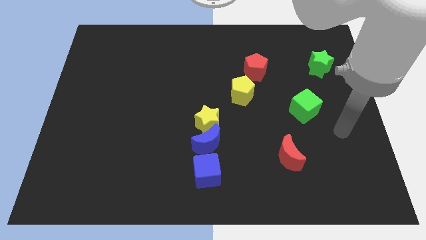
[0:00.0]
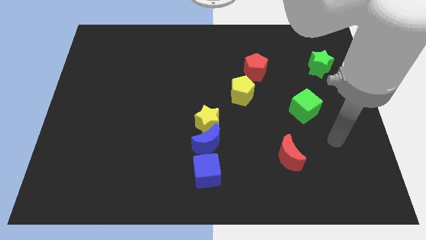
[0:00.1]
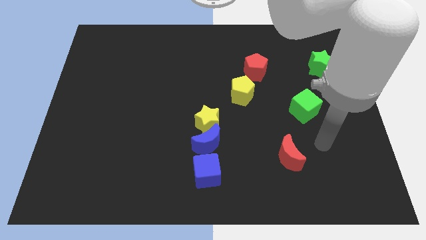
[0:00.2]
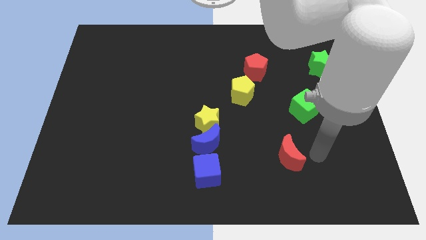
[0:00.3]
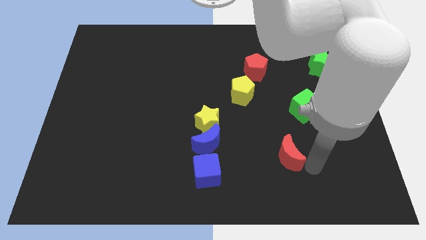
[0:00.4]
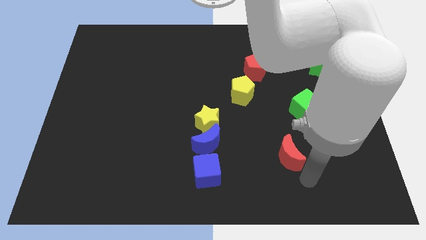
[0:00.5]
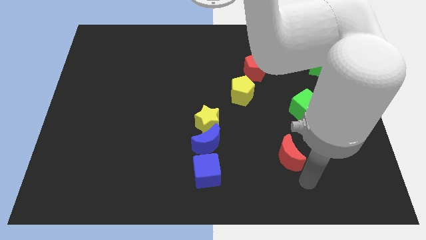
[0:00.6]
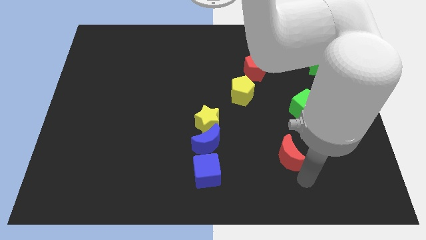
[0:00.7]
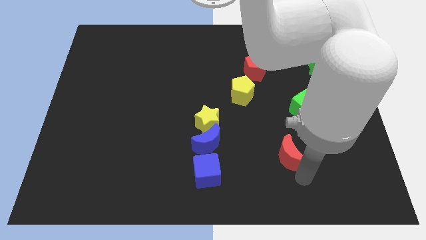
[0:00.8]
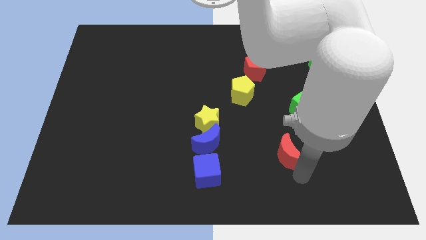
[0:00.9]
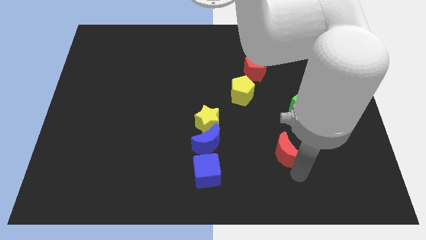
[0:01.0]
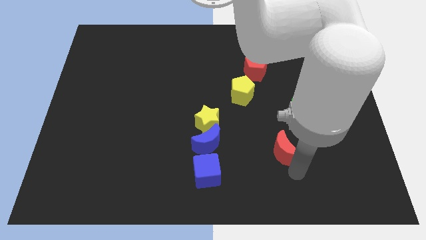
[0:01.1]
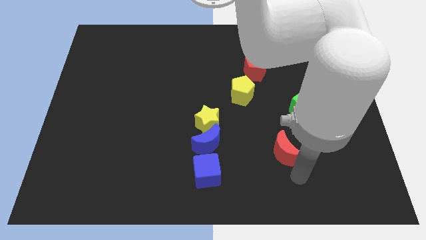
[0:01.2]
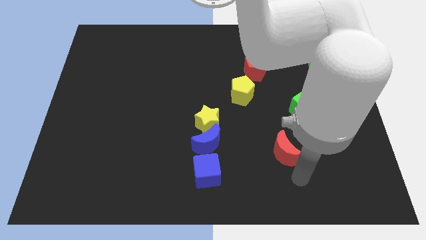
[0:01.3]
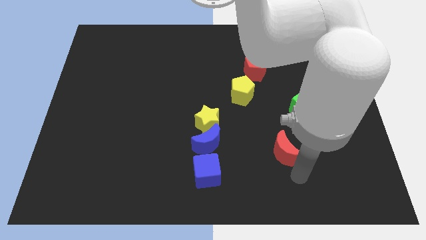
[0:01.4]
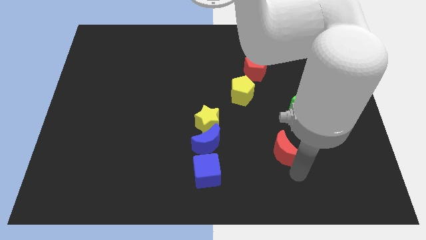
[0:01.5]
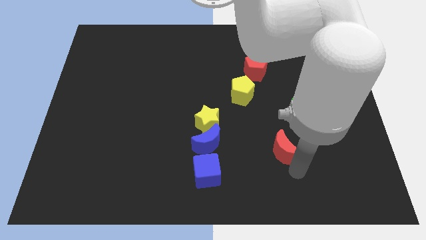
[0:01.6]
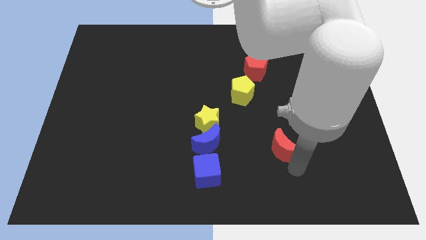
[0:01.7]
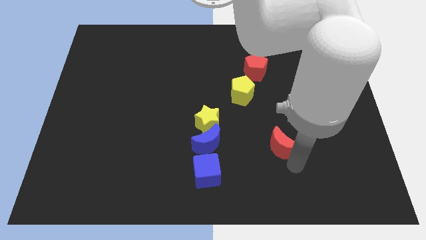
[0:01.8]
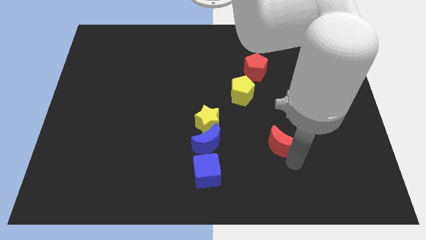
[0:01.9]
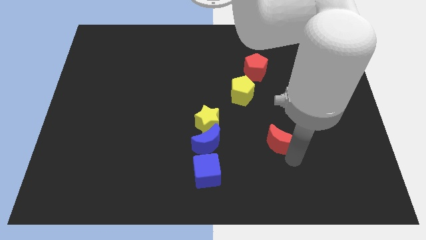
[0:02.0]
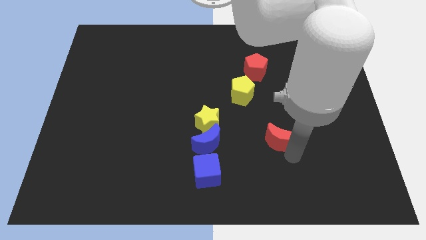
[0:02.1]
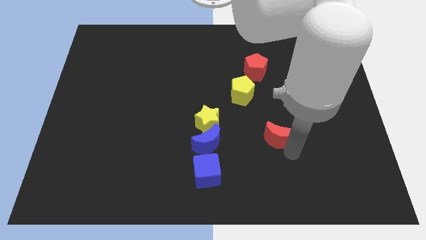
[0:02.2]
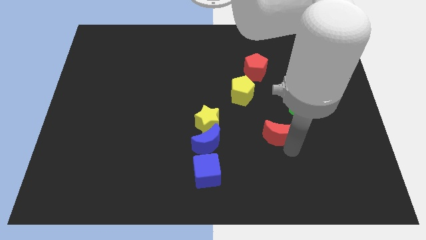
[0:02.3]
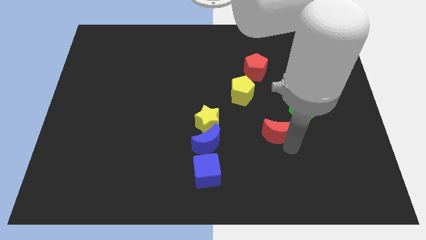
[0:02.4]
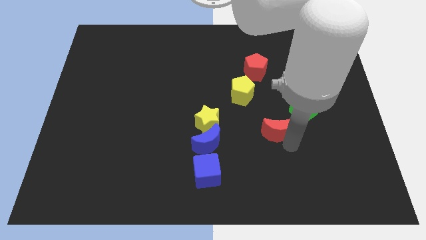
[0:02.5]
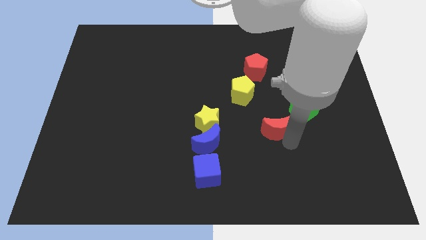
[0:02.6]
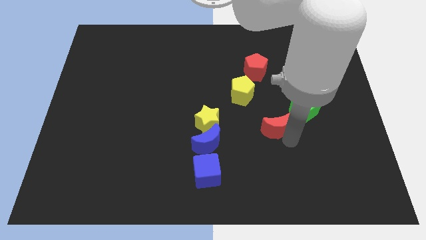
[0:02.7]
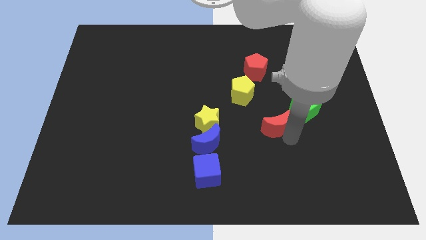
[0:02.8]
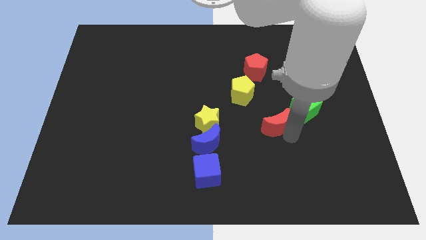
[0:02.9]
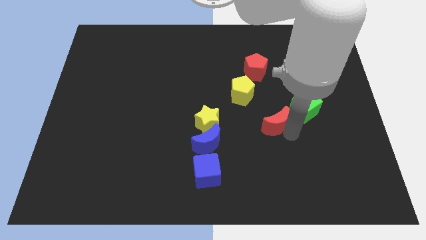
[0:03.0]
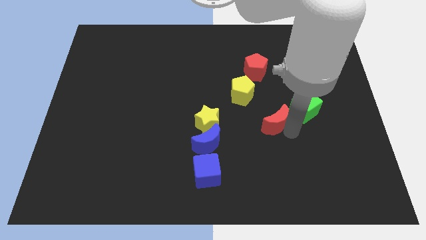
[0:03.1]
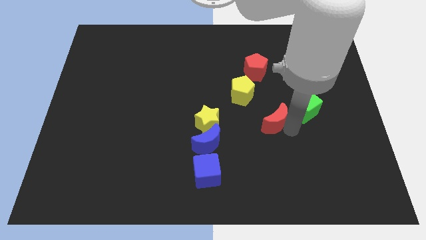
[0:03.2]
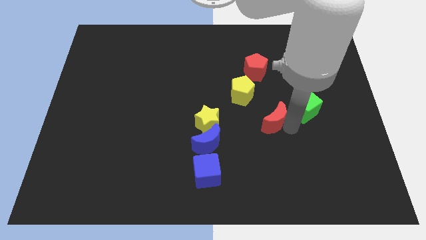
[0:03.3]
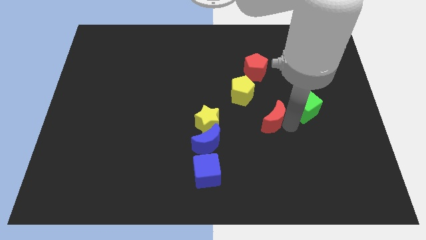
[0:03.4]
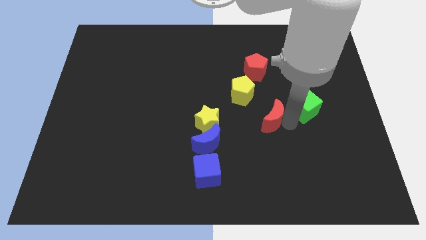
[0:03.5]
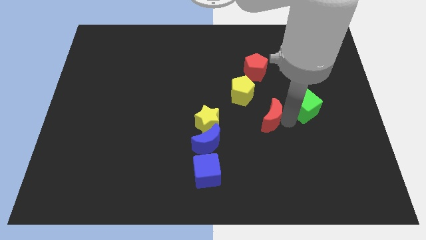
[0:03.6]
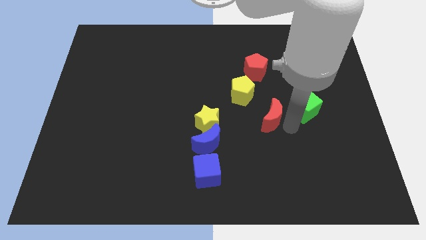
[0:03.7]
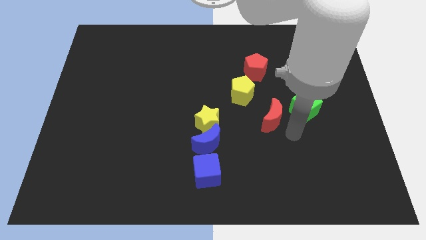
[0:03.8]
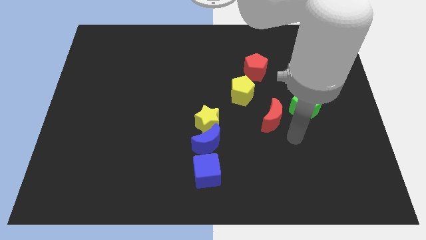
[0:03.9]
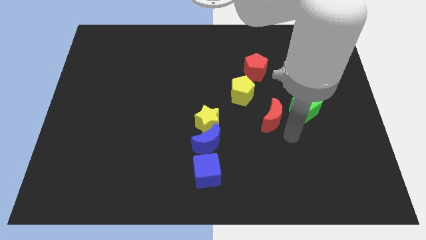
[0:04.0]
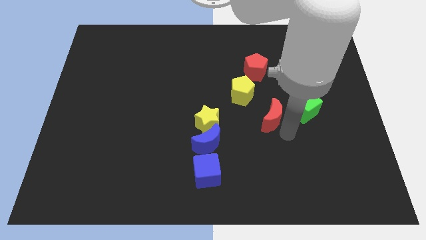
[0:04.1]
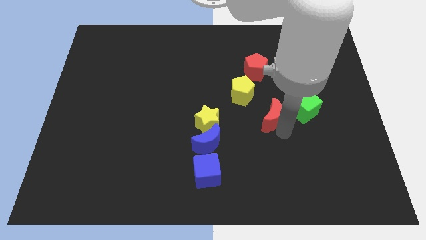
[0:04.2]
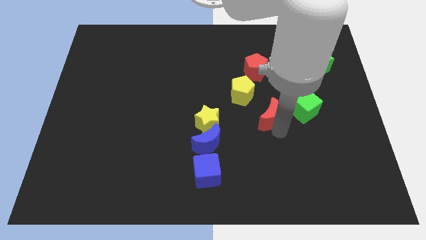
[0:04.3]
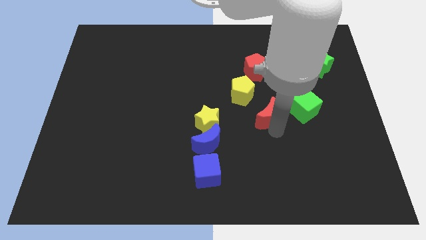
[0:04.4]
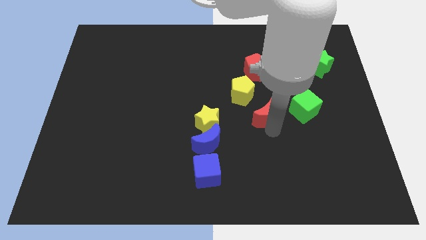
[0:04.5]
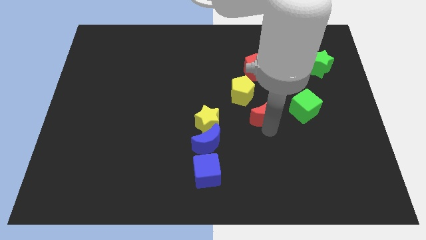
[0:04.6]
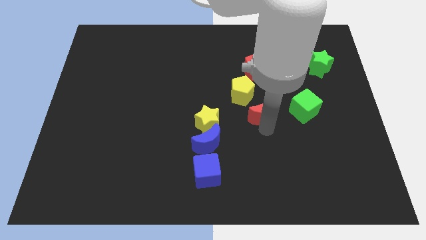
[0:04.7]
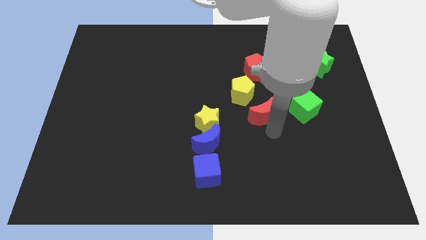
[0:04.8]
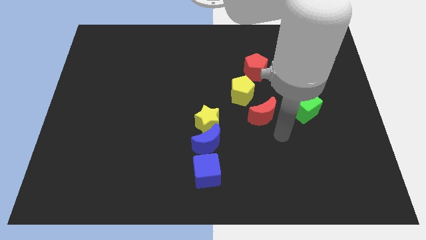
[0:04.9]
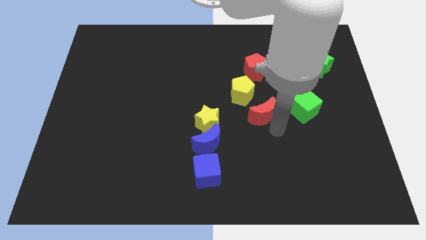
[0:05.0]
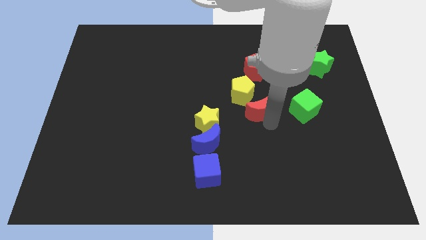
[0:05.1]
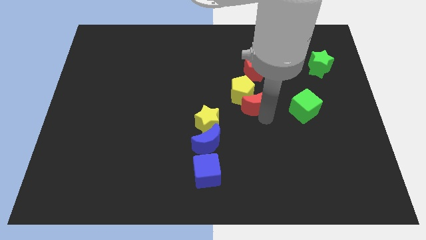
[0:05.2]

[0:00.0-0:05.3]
push the red moon towards the yellow pentagon

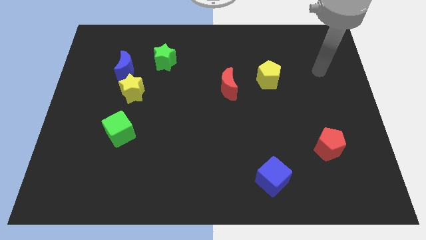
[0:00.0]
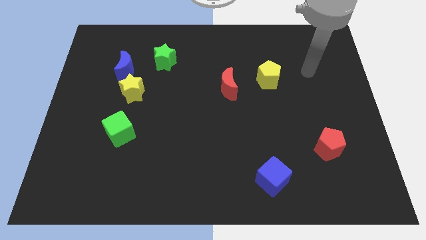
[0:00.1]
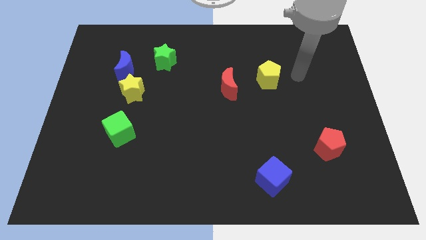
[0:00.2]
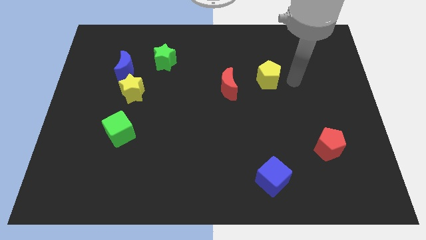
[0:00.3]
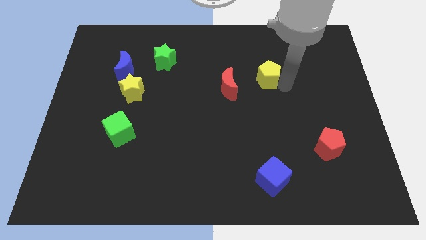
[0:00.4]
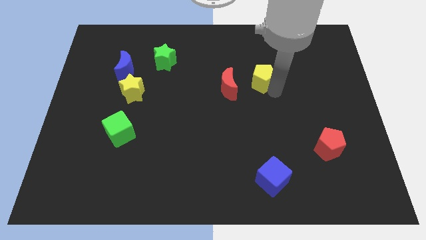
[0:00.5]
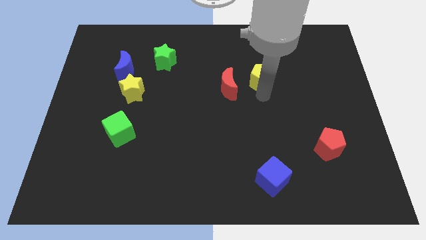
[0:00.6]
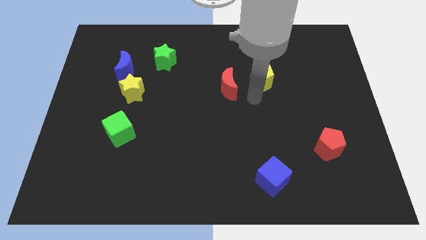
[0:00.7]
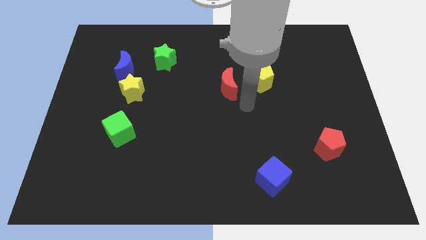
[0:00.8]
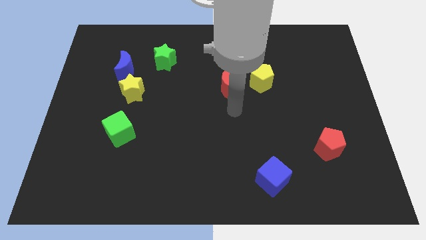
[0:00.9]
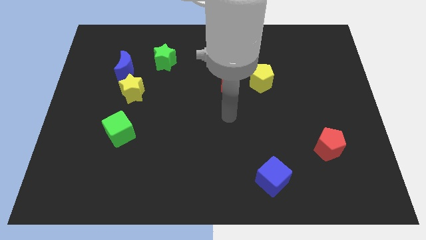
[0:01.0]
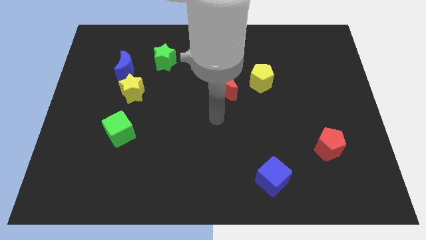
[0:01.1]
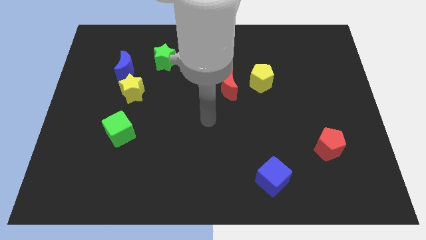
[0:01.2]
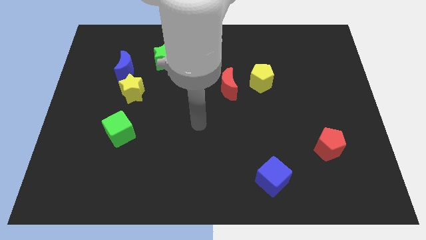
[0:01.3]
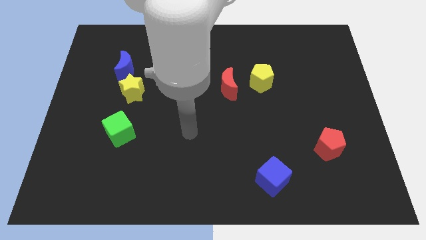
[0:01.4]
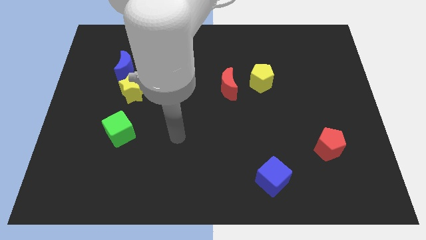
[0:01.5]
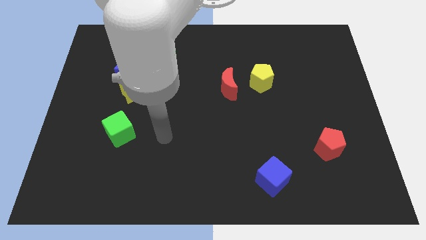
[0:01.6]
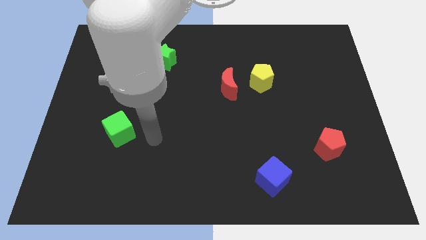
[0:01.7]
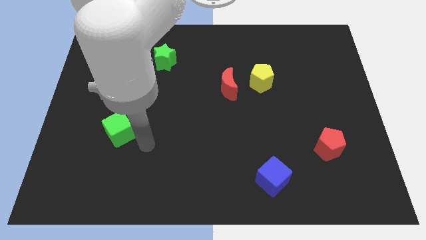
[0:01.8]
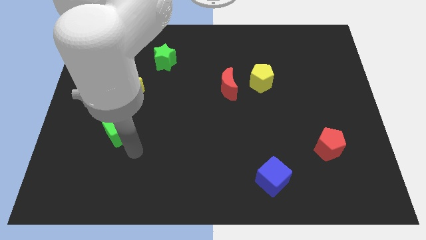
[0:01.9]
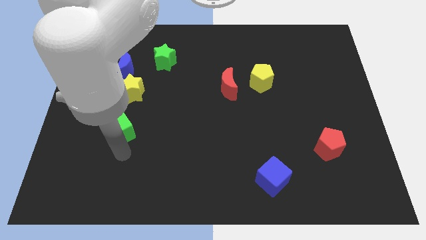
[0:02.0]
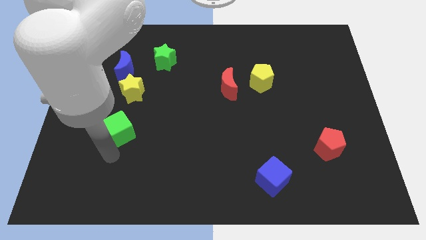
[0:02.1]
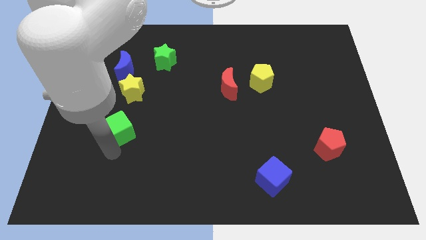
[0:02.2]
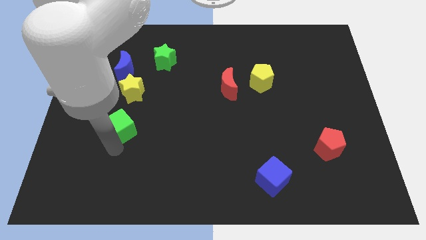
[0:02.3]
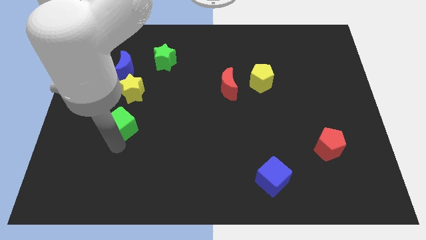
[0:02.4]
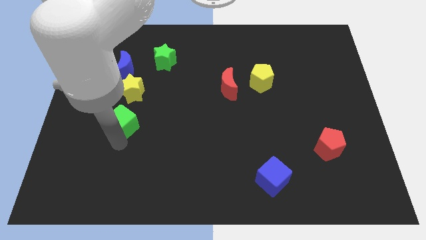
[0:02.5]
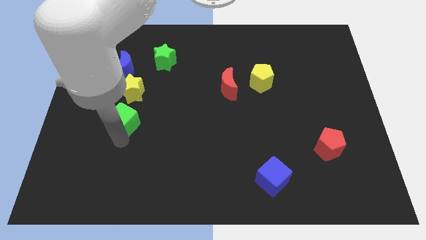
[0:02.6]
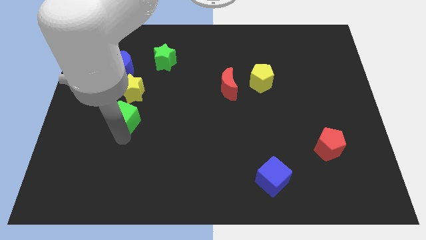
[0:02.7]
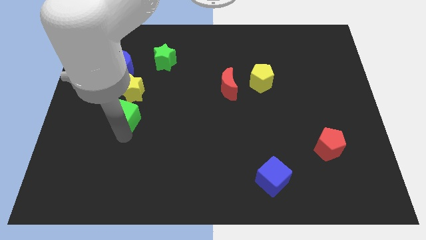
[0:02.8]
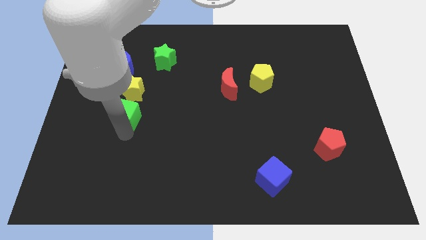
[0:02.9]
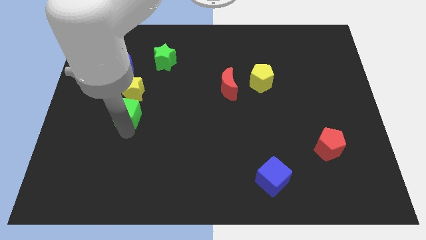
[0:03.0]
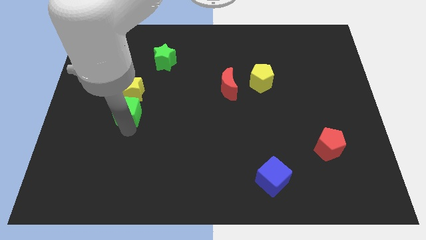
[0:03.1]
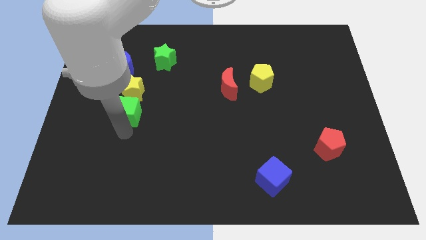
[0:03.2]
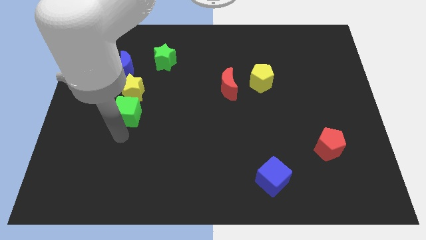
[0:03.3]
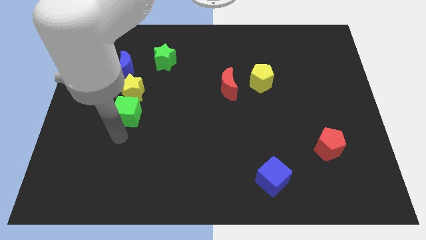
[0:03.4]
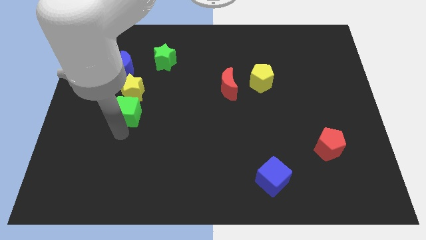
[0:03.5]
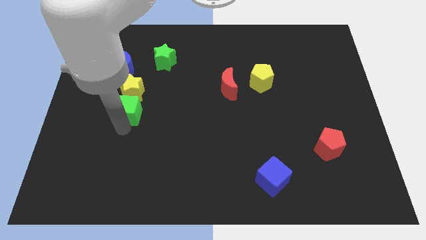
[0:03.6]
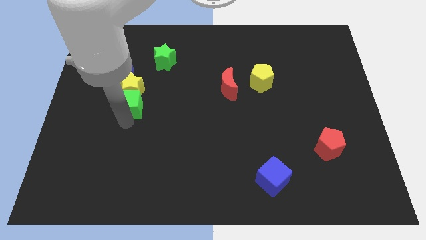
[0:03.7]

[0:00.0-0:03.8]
move the green cube next to the yellow star
